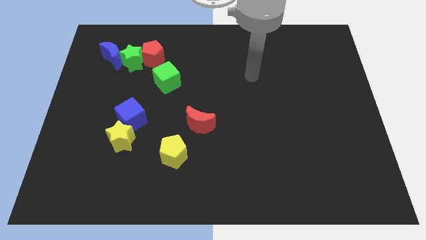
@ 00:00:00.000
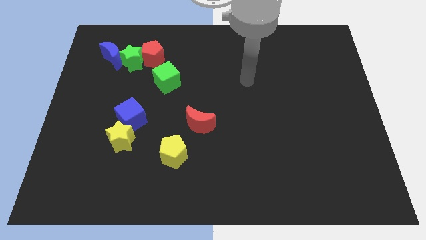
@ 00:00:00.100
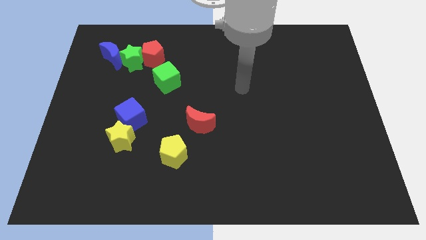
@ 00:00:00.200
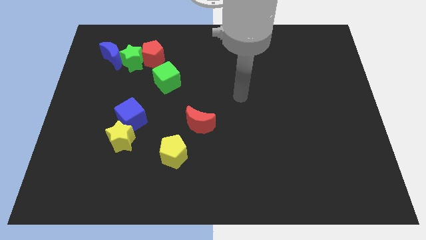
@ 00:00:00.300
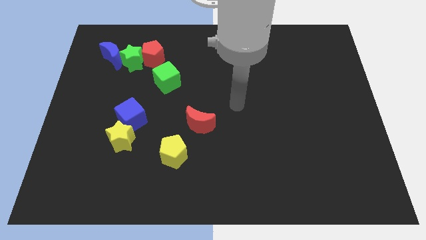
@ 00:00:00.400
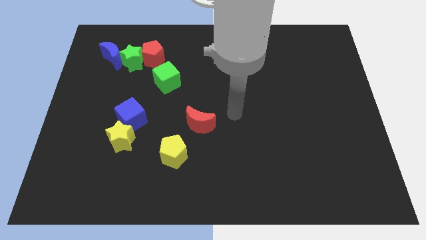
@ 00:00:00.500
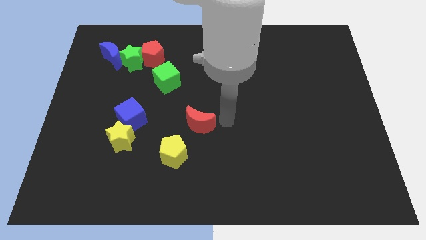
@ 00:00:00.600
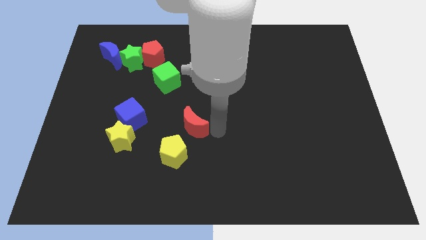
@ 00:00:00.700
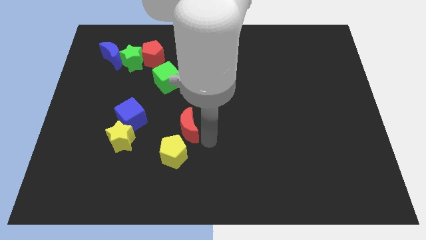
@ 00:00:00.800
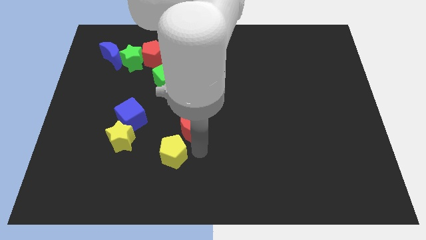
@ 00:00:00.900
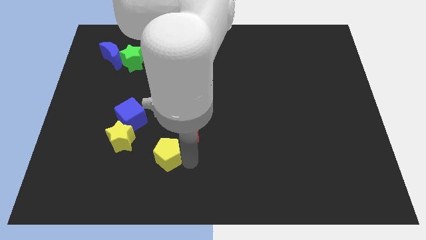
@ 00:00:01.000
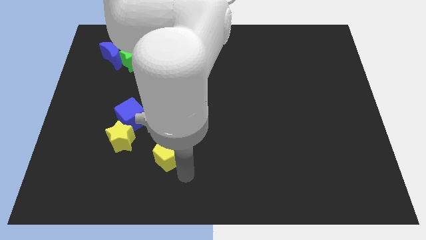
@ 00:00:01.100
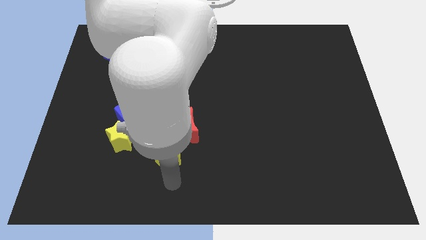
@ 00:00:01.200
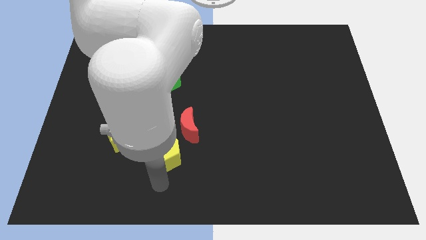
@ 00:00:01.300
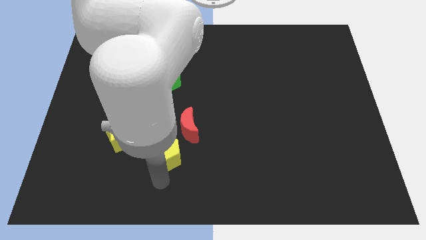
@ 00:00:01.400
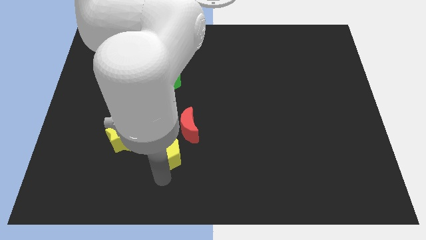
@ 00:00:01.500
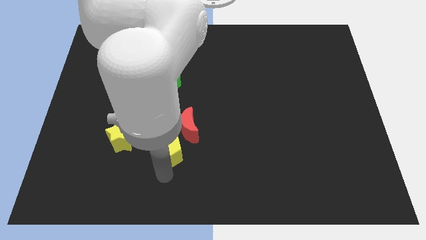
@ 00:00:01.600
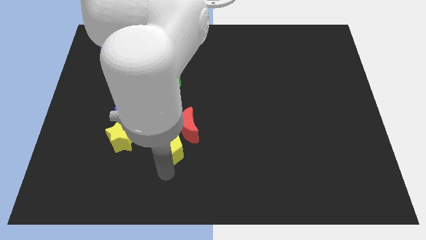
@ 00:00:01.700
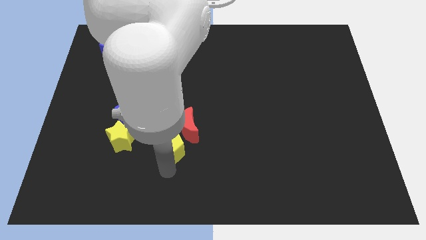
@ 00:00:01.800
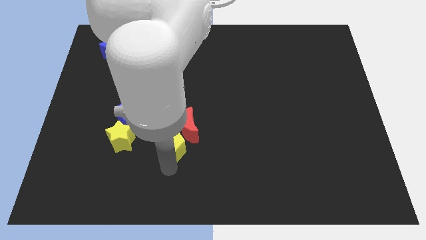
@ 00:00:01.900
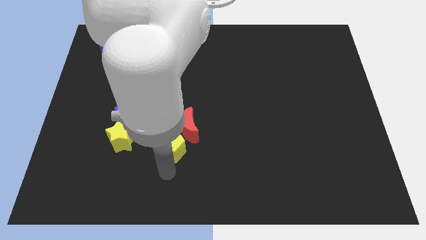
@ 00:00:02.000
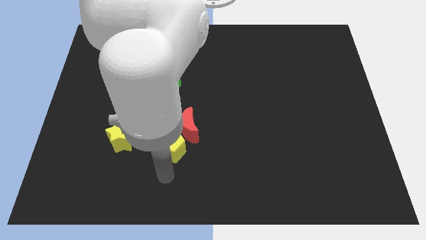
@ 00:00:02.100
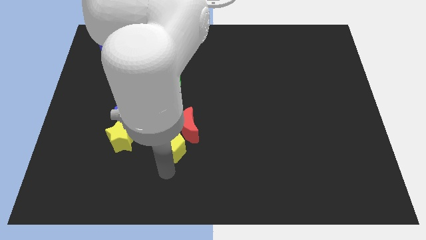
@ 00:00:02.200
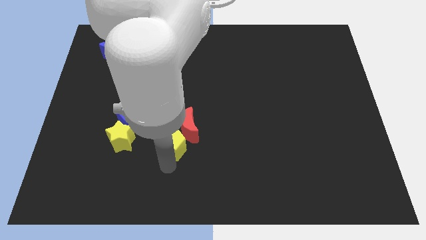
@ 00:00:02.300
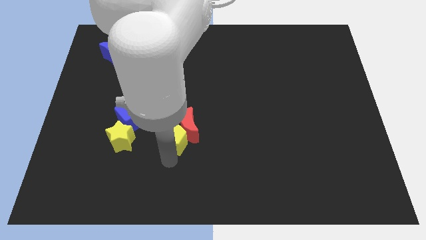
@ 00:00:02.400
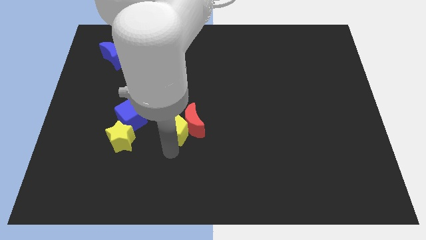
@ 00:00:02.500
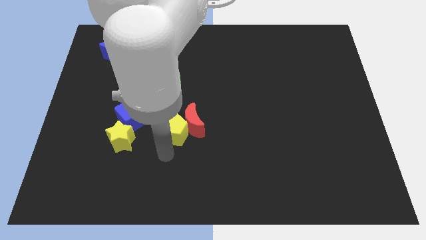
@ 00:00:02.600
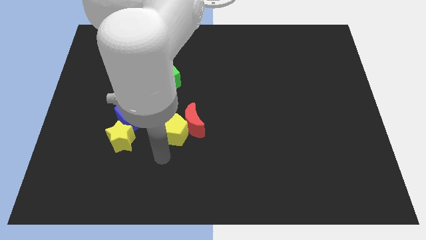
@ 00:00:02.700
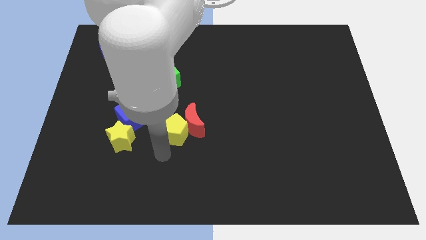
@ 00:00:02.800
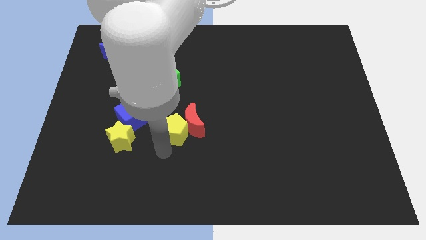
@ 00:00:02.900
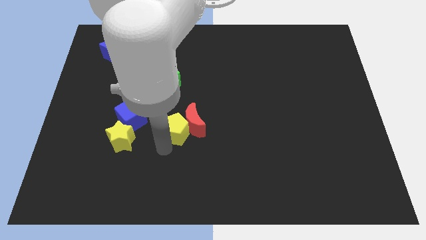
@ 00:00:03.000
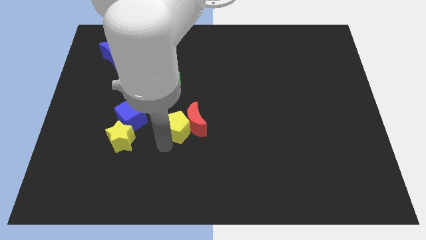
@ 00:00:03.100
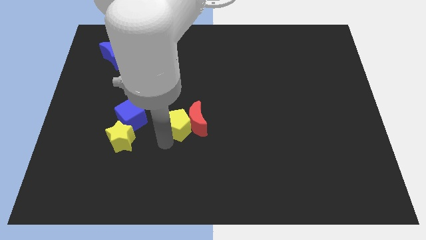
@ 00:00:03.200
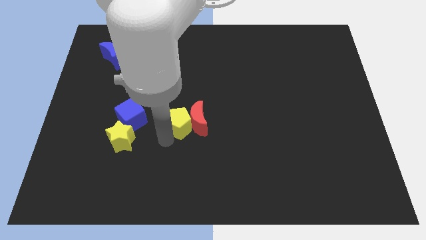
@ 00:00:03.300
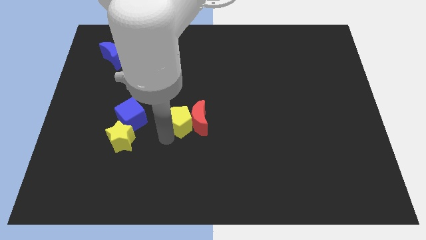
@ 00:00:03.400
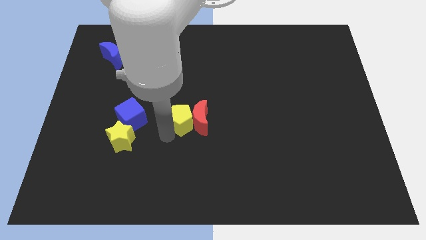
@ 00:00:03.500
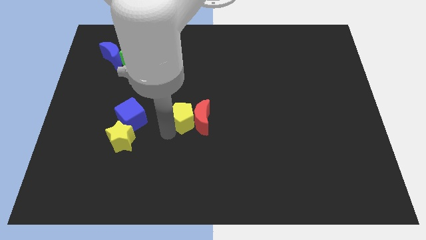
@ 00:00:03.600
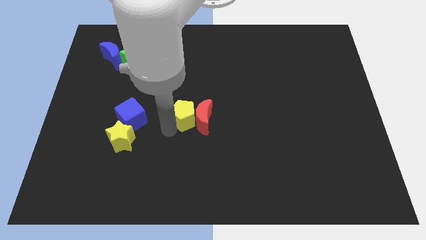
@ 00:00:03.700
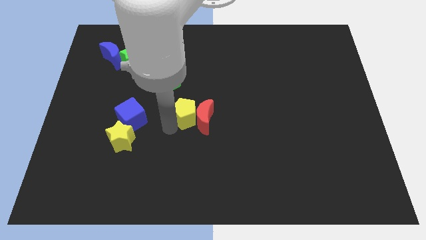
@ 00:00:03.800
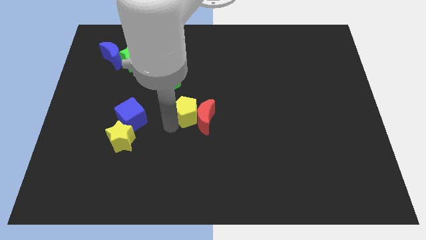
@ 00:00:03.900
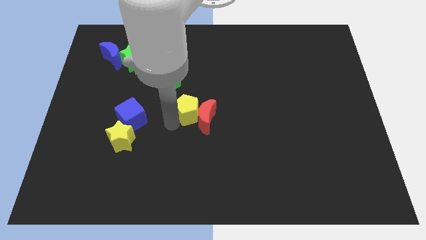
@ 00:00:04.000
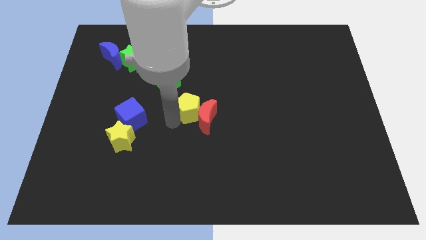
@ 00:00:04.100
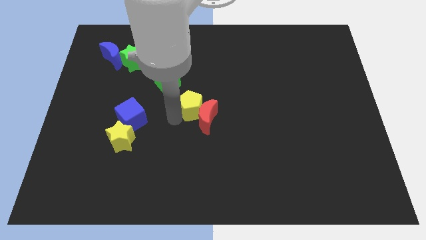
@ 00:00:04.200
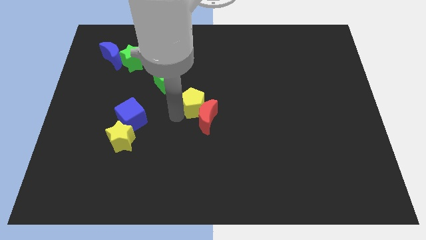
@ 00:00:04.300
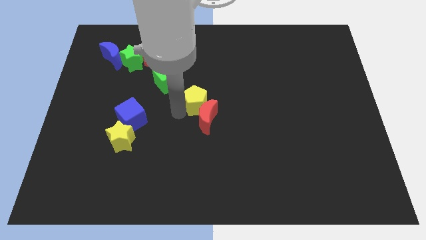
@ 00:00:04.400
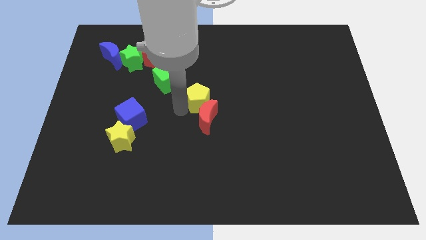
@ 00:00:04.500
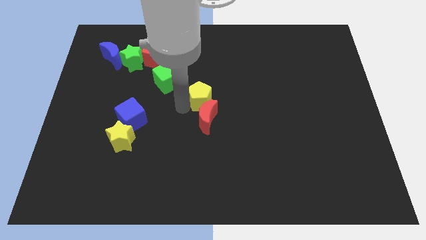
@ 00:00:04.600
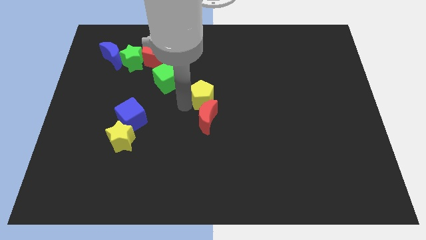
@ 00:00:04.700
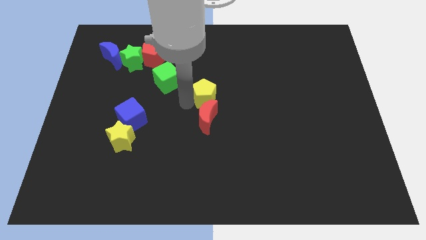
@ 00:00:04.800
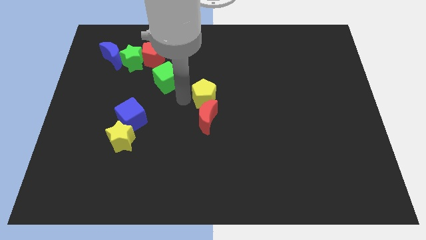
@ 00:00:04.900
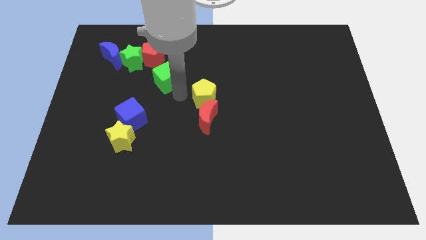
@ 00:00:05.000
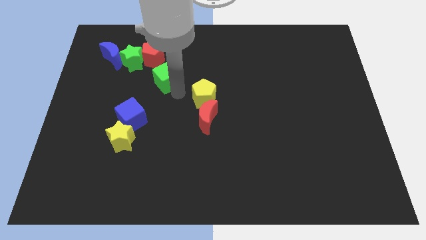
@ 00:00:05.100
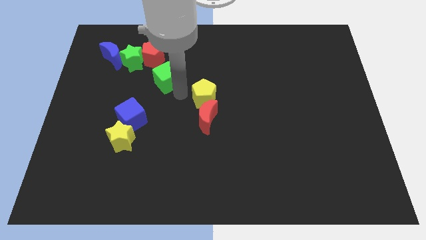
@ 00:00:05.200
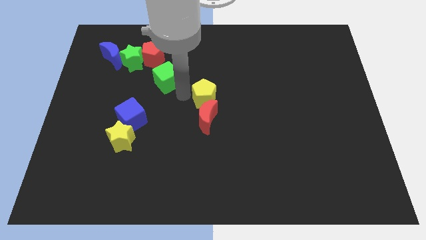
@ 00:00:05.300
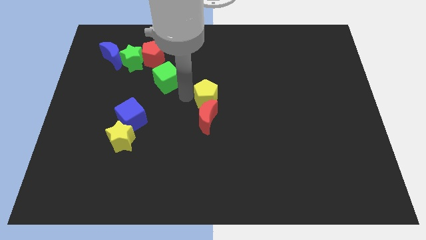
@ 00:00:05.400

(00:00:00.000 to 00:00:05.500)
slide the yellow pentagon to the top right of the red moon

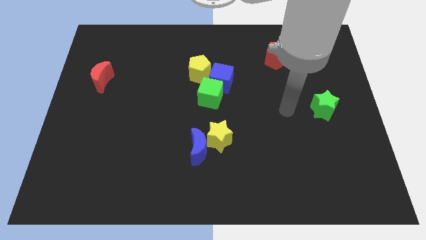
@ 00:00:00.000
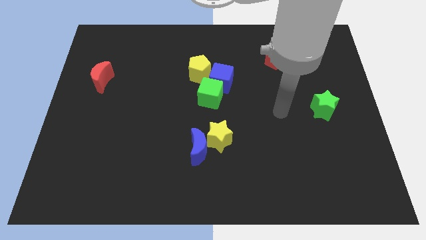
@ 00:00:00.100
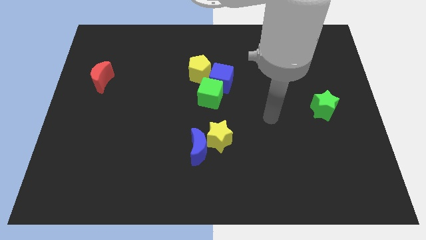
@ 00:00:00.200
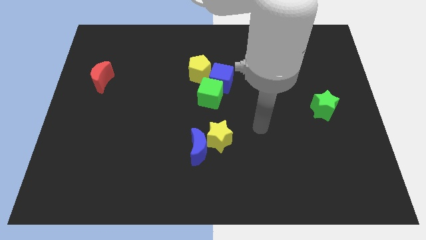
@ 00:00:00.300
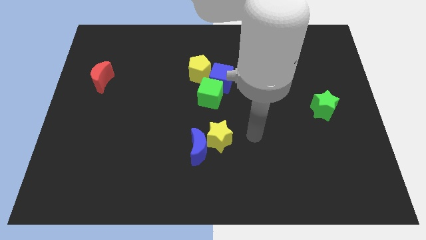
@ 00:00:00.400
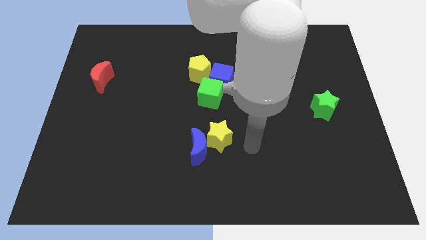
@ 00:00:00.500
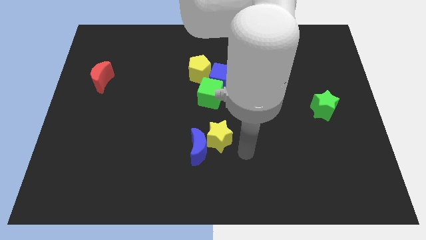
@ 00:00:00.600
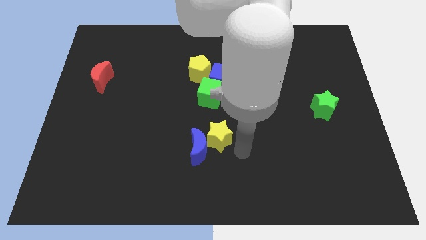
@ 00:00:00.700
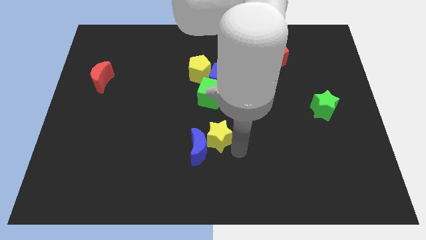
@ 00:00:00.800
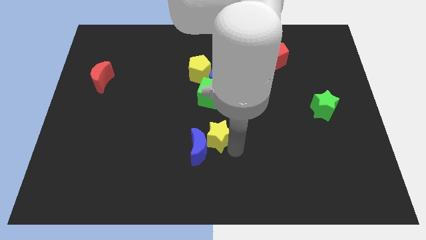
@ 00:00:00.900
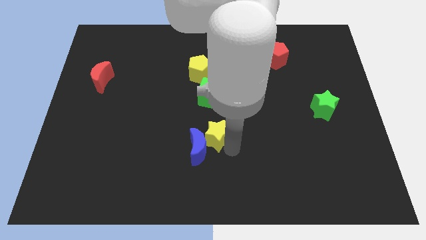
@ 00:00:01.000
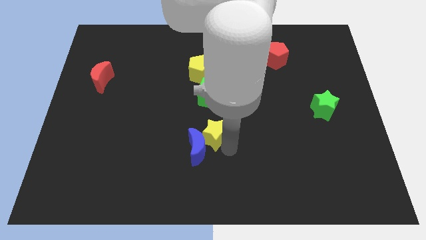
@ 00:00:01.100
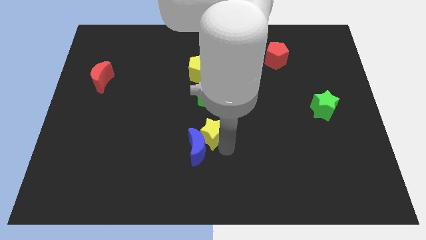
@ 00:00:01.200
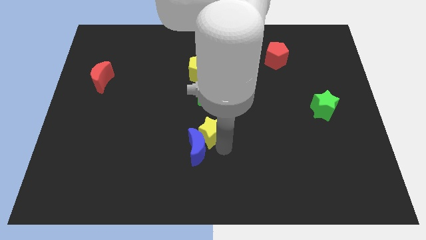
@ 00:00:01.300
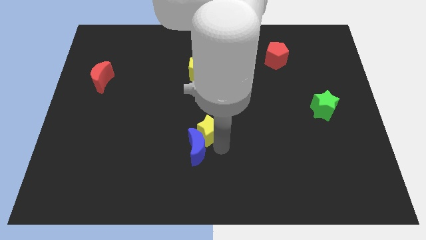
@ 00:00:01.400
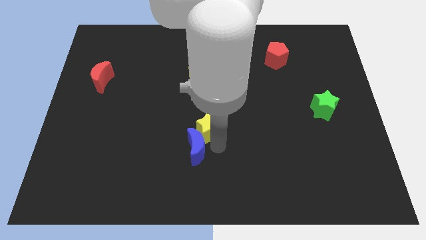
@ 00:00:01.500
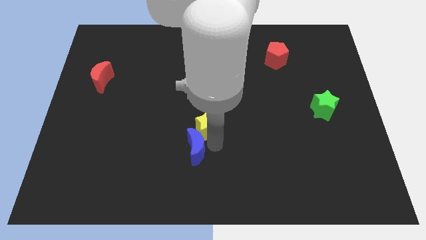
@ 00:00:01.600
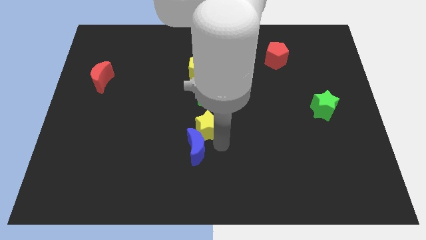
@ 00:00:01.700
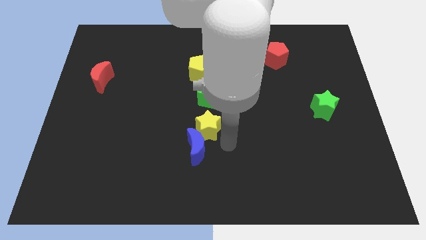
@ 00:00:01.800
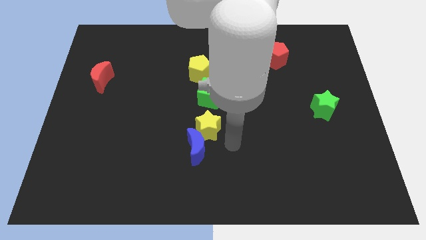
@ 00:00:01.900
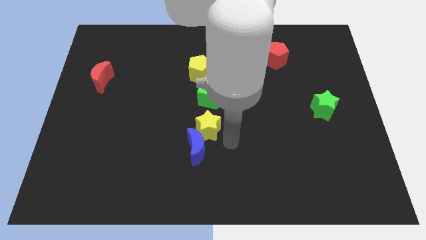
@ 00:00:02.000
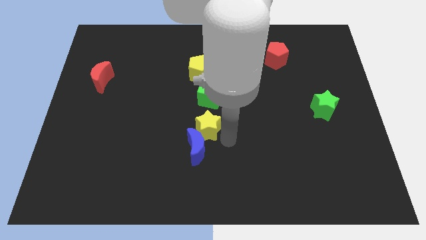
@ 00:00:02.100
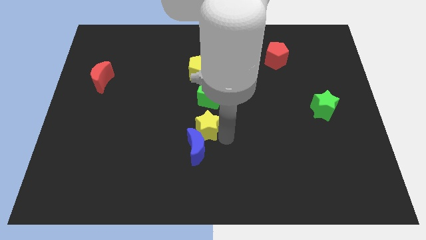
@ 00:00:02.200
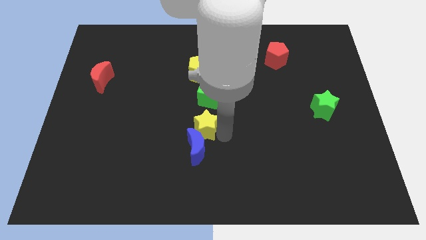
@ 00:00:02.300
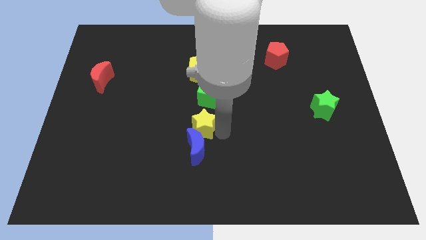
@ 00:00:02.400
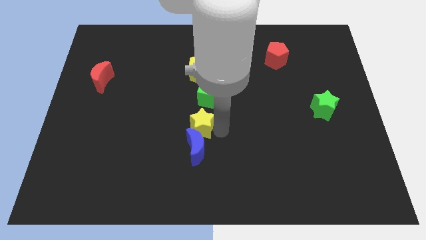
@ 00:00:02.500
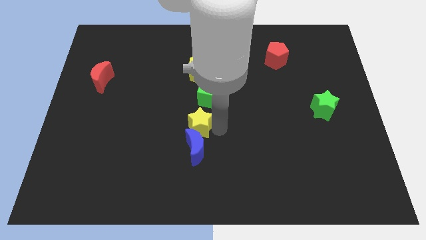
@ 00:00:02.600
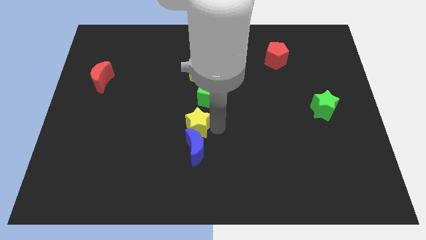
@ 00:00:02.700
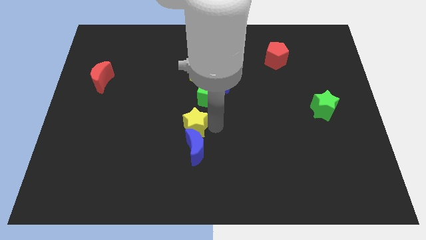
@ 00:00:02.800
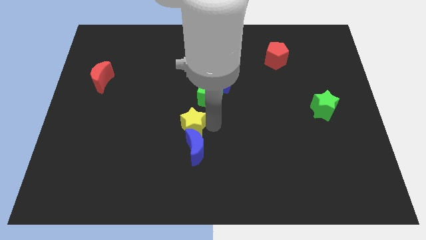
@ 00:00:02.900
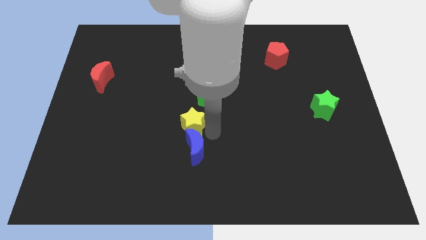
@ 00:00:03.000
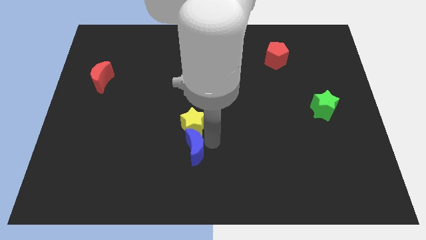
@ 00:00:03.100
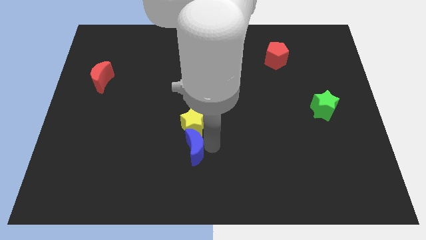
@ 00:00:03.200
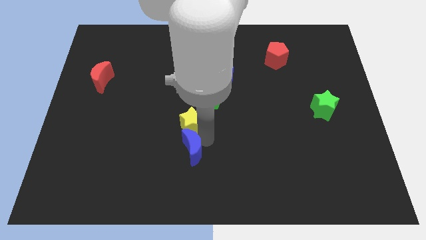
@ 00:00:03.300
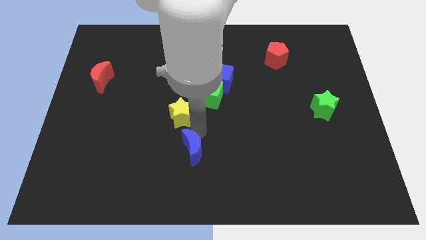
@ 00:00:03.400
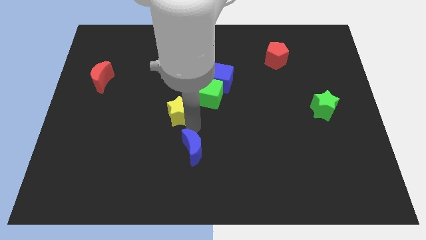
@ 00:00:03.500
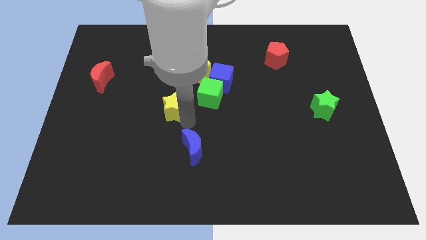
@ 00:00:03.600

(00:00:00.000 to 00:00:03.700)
move the yellow star to the left of the green cube
